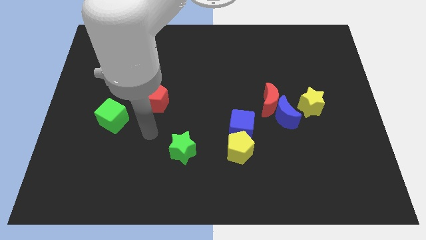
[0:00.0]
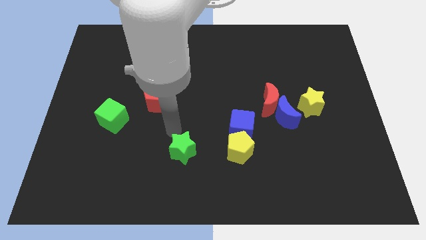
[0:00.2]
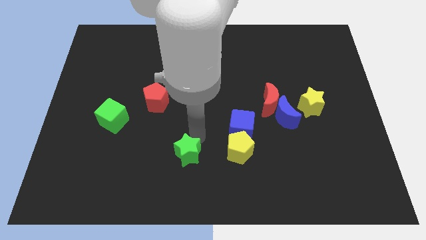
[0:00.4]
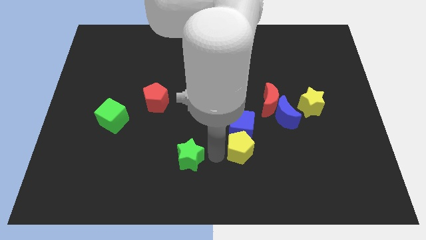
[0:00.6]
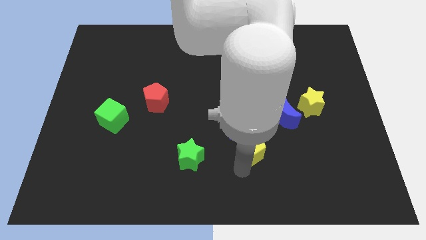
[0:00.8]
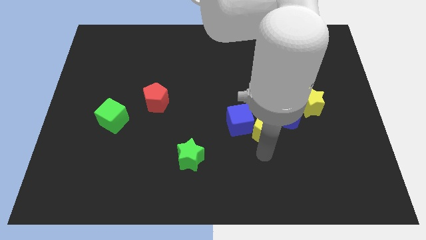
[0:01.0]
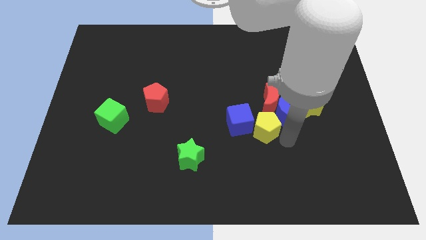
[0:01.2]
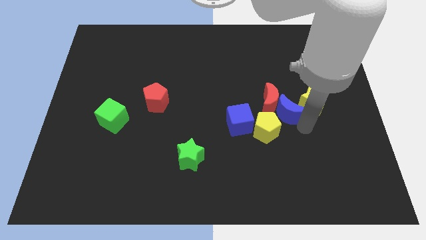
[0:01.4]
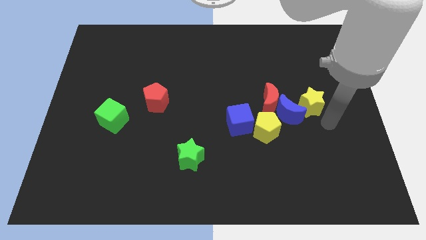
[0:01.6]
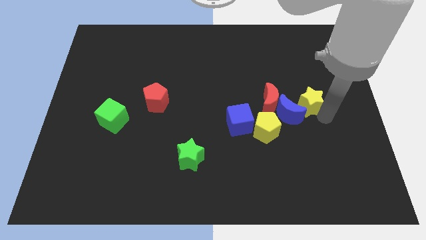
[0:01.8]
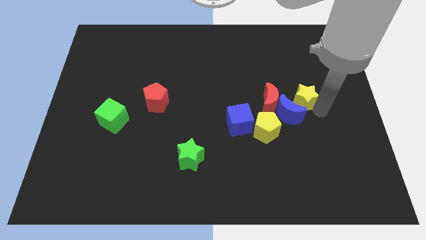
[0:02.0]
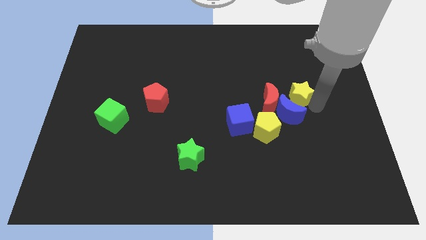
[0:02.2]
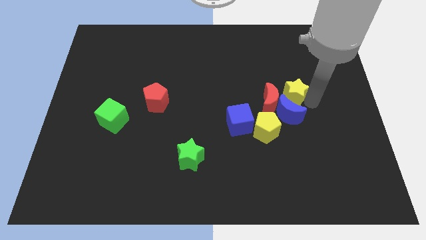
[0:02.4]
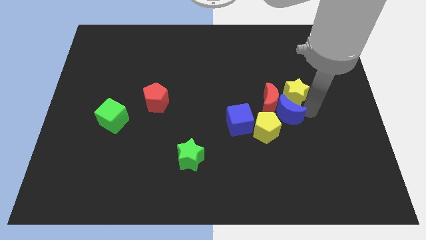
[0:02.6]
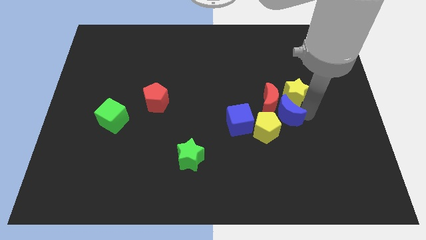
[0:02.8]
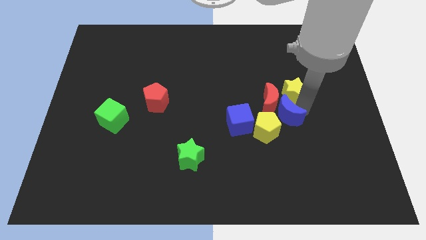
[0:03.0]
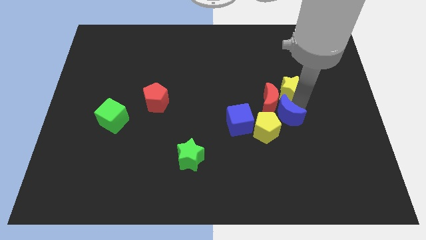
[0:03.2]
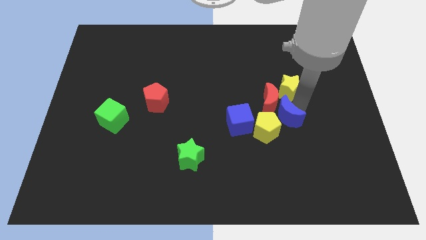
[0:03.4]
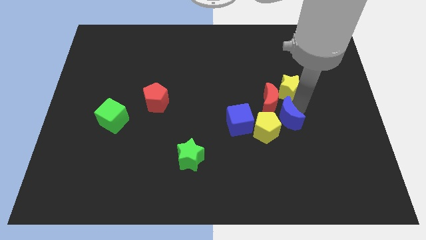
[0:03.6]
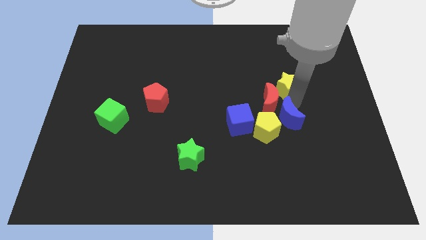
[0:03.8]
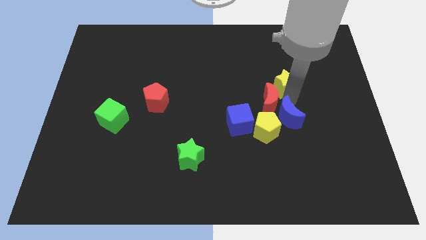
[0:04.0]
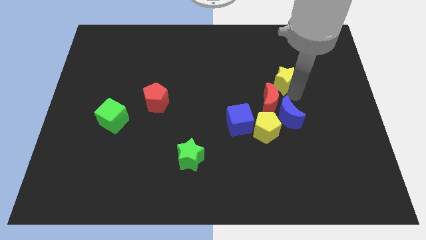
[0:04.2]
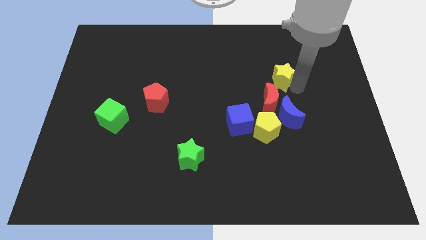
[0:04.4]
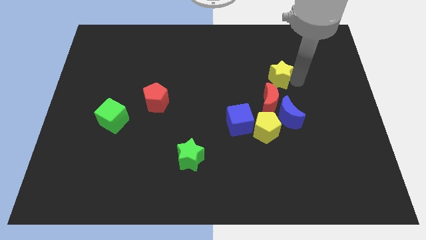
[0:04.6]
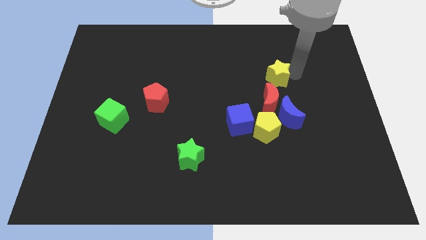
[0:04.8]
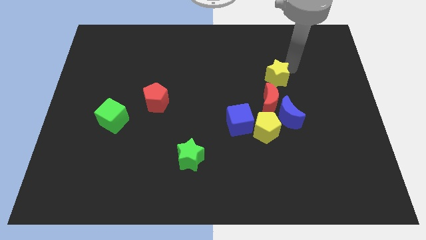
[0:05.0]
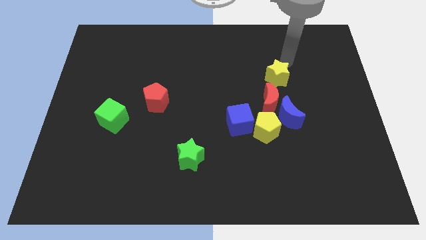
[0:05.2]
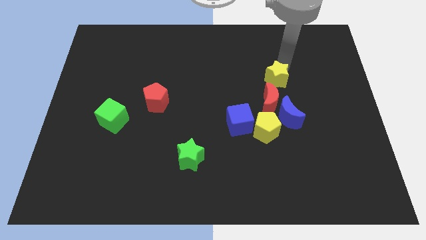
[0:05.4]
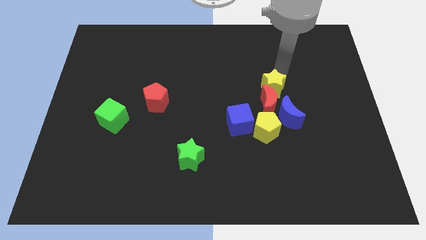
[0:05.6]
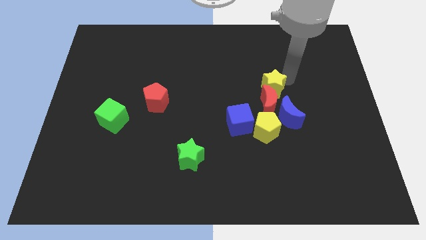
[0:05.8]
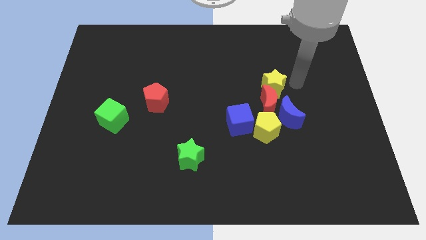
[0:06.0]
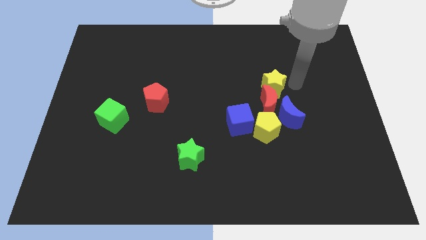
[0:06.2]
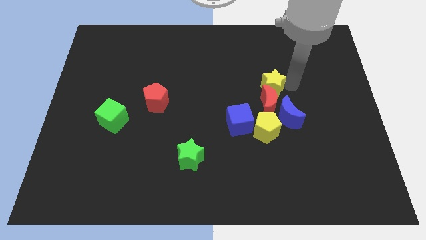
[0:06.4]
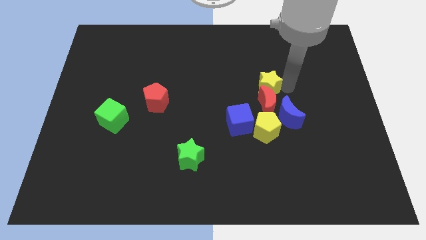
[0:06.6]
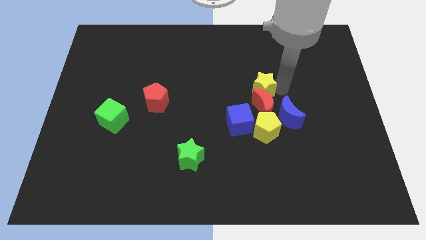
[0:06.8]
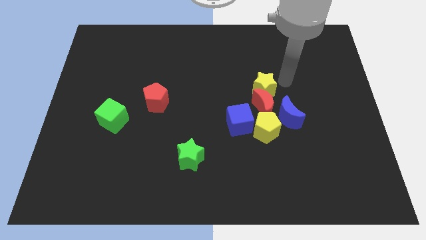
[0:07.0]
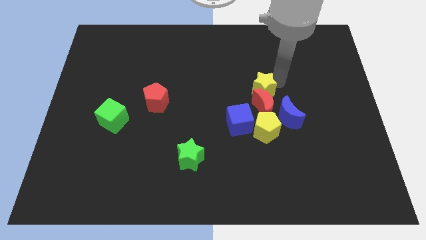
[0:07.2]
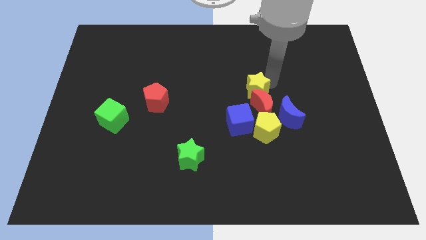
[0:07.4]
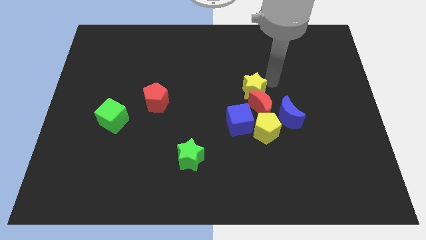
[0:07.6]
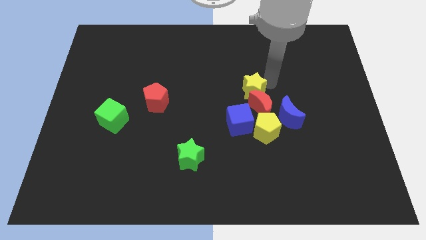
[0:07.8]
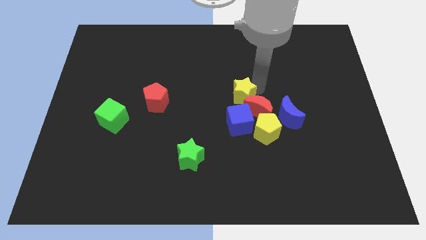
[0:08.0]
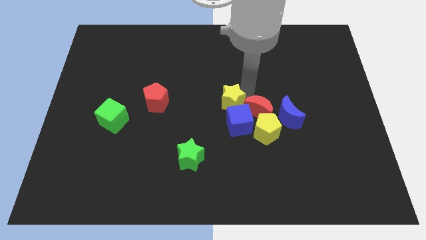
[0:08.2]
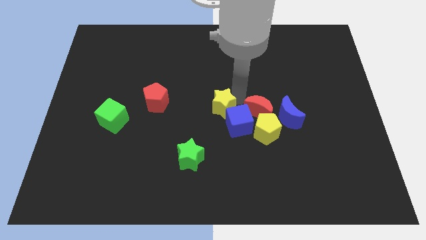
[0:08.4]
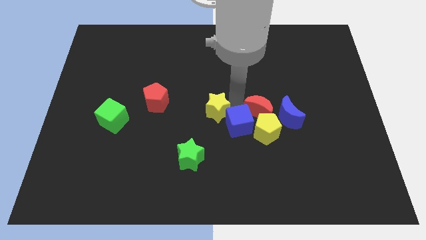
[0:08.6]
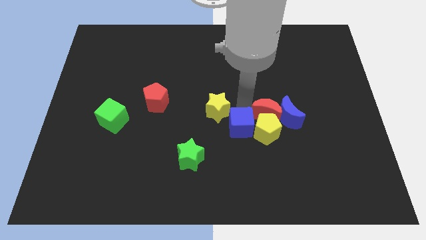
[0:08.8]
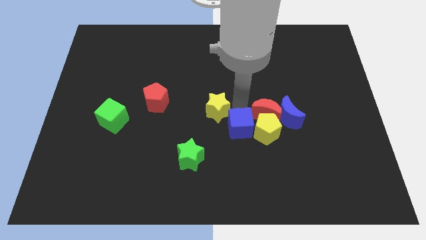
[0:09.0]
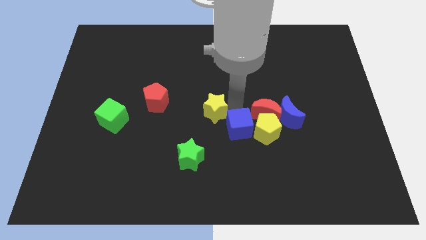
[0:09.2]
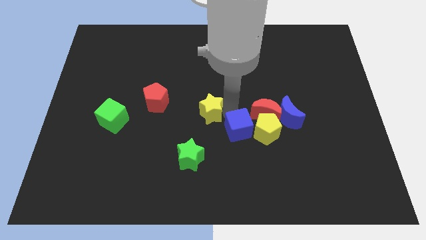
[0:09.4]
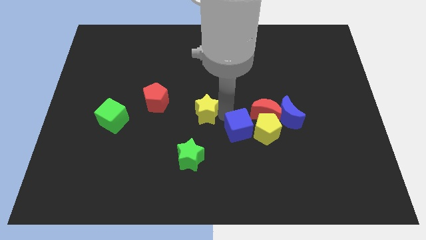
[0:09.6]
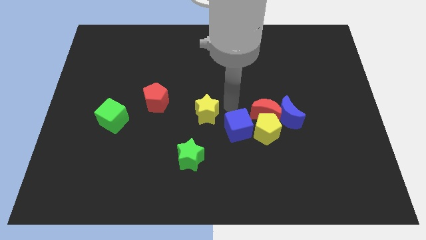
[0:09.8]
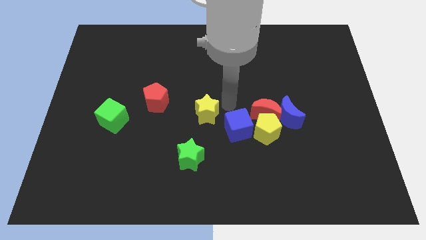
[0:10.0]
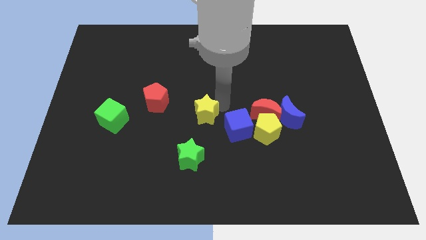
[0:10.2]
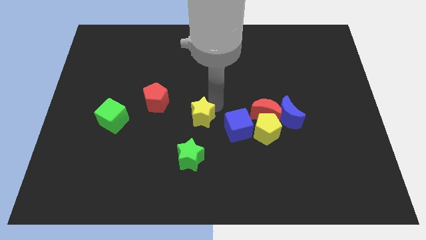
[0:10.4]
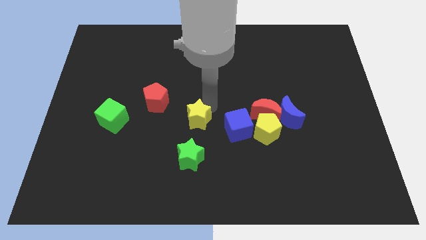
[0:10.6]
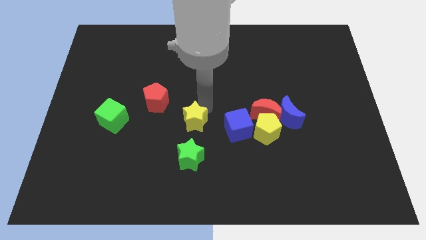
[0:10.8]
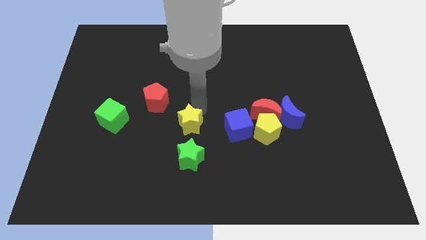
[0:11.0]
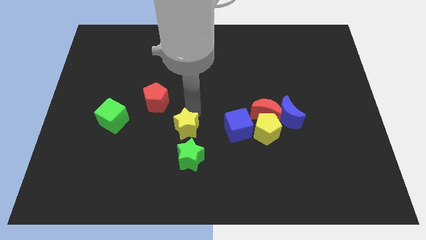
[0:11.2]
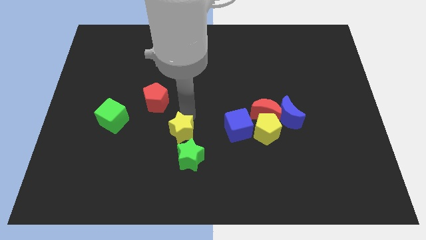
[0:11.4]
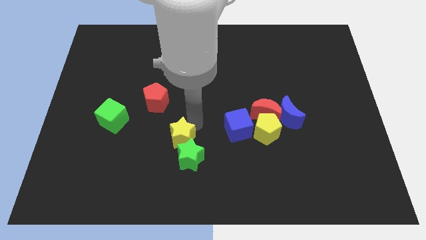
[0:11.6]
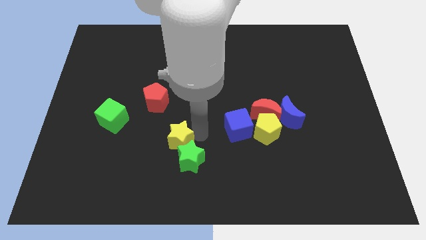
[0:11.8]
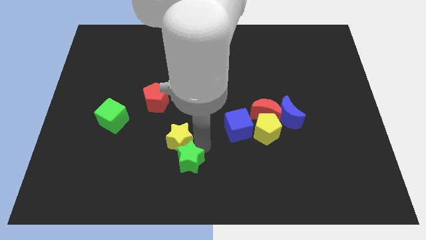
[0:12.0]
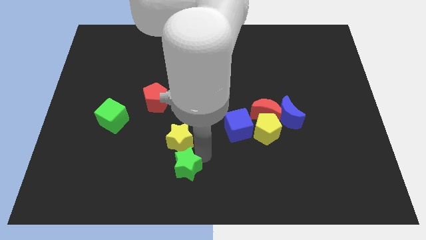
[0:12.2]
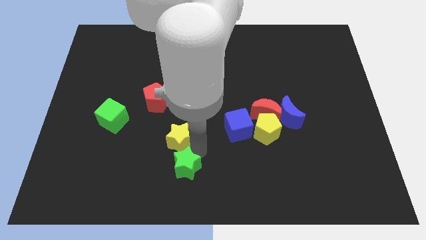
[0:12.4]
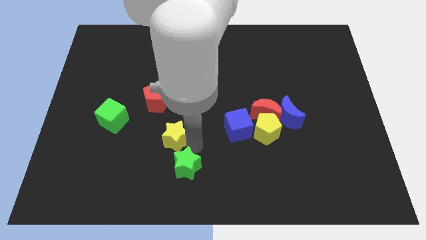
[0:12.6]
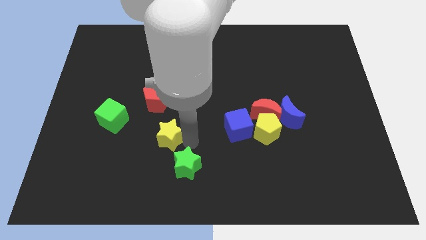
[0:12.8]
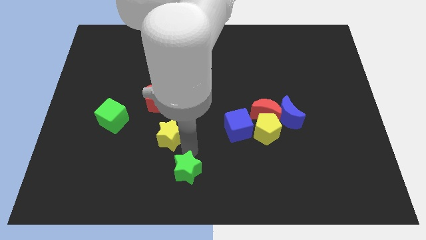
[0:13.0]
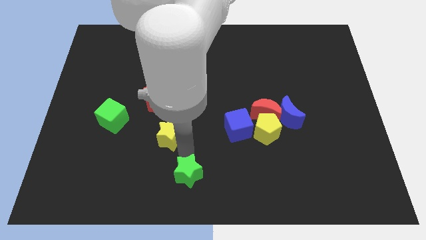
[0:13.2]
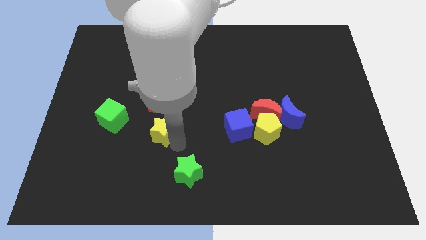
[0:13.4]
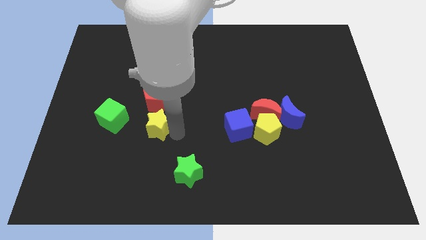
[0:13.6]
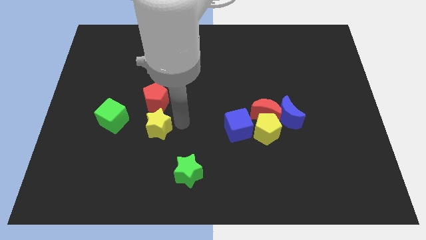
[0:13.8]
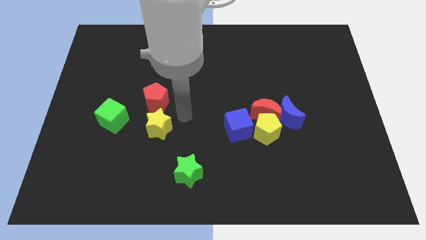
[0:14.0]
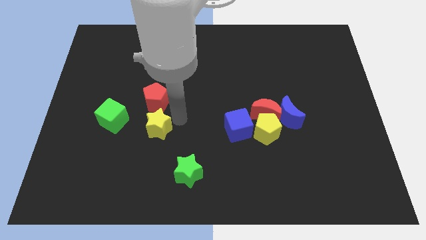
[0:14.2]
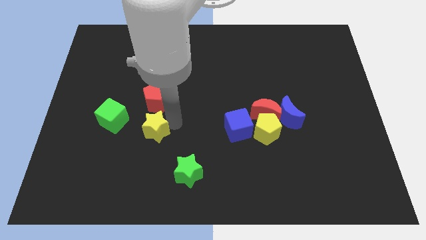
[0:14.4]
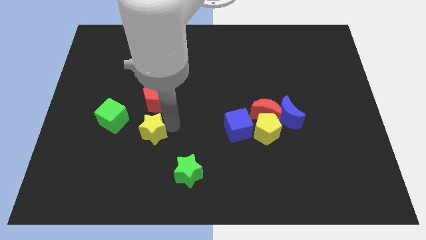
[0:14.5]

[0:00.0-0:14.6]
push the yellow star to the bottom right of the green cube

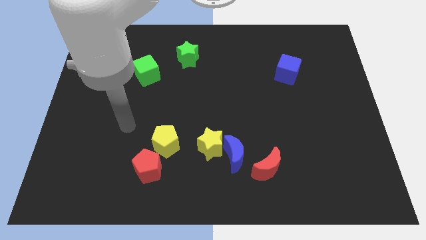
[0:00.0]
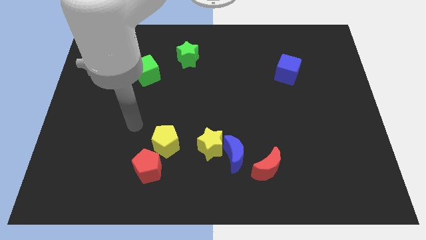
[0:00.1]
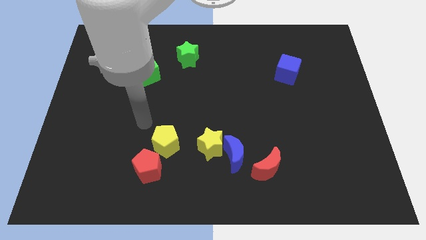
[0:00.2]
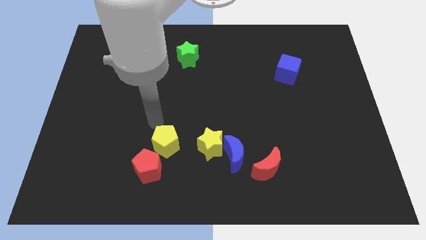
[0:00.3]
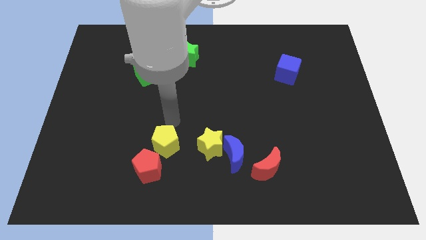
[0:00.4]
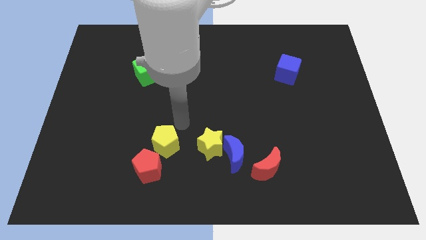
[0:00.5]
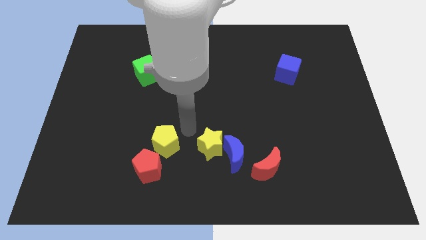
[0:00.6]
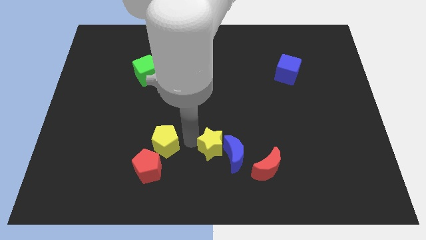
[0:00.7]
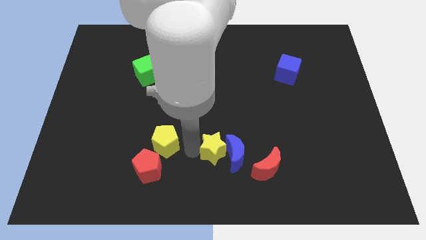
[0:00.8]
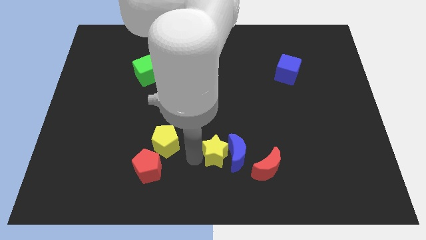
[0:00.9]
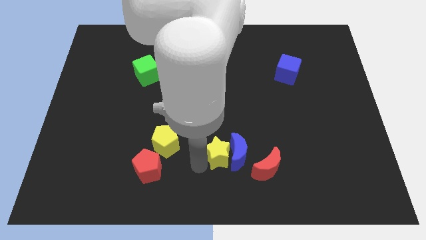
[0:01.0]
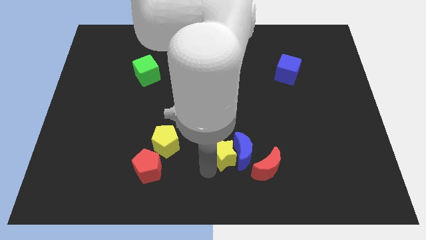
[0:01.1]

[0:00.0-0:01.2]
slide the blue moon to the top of the red moon
